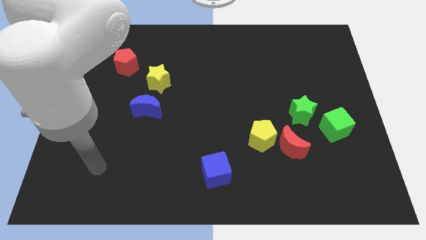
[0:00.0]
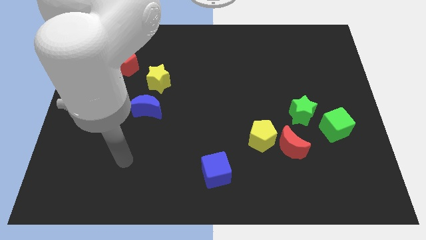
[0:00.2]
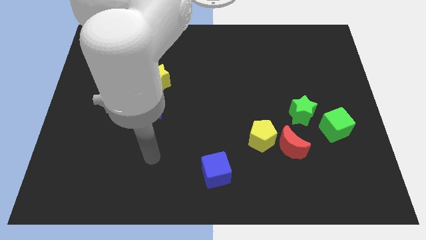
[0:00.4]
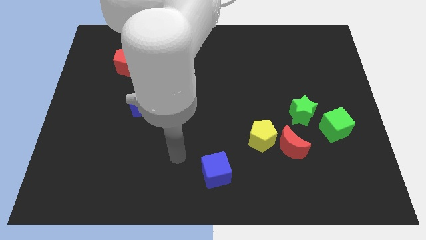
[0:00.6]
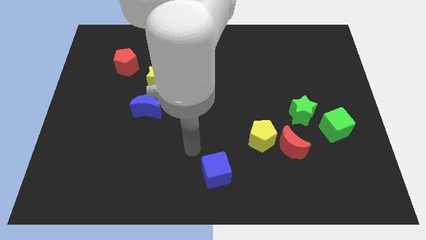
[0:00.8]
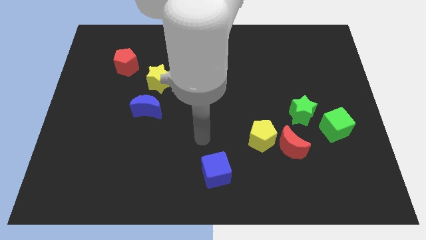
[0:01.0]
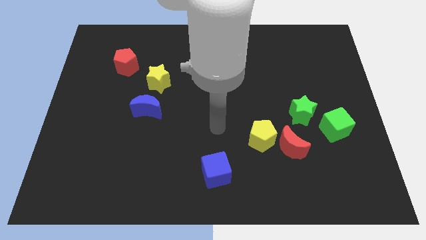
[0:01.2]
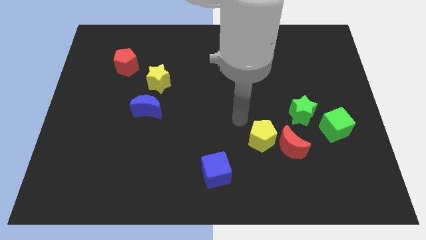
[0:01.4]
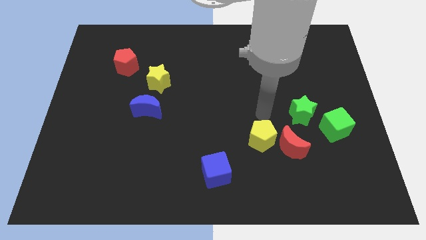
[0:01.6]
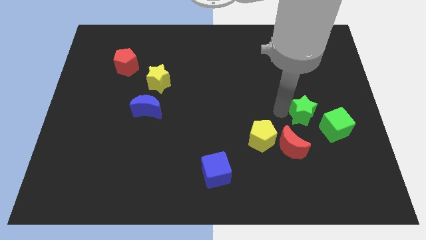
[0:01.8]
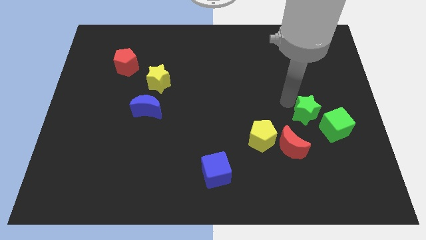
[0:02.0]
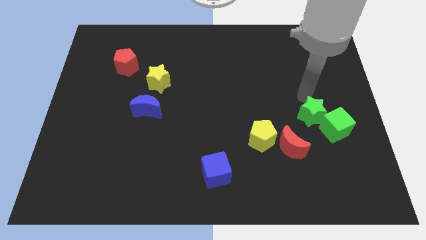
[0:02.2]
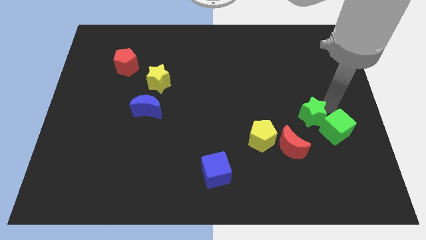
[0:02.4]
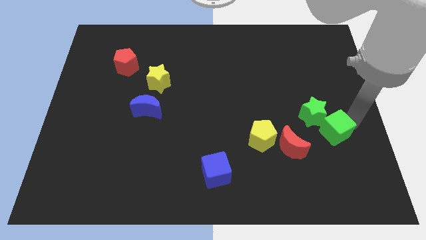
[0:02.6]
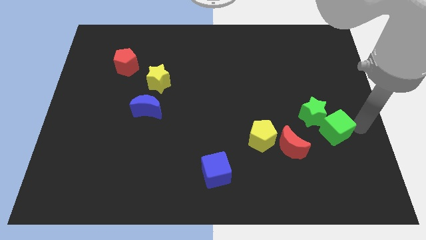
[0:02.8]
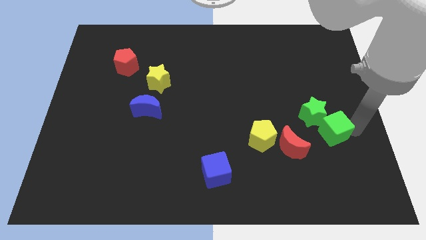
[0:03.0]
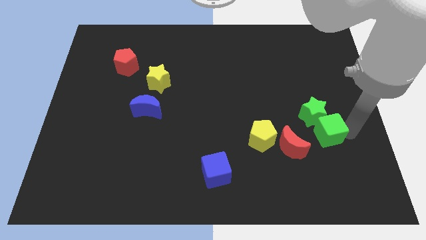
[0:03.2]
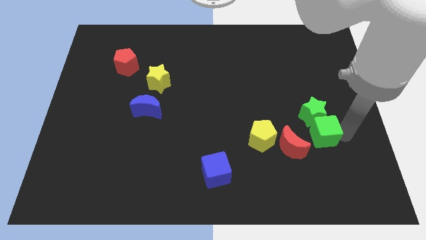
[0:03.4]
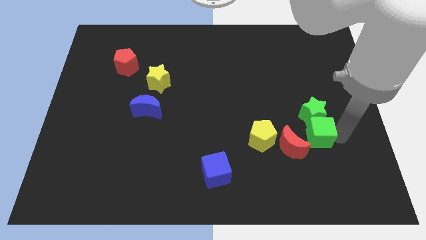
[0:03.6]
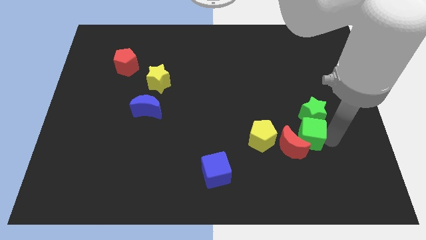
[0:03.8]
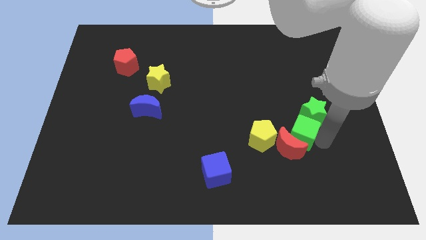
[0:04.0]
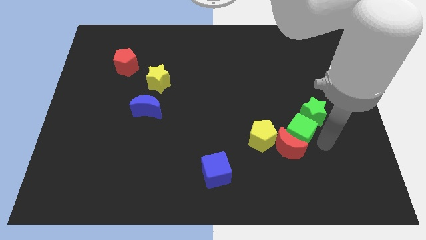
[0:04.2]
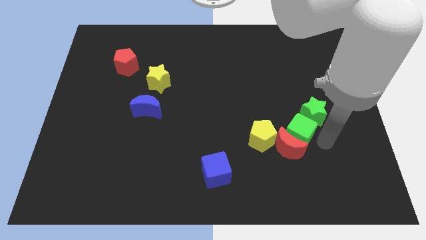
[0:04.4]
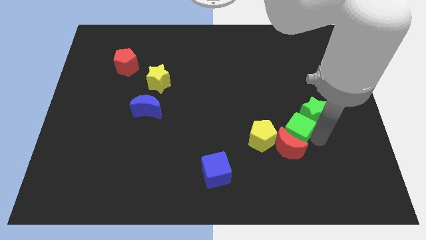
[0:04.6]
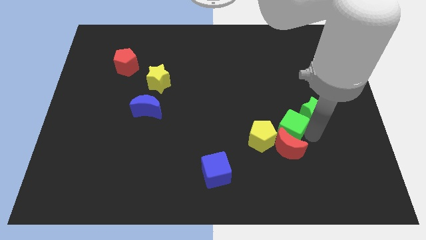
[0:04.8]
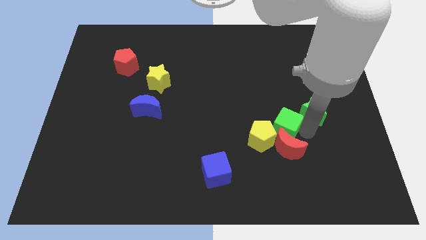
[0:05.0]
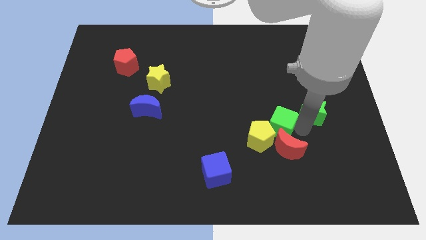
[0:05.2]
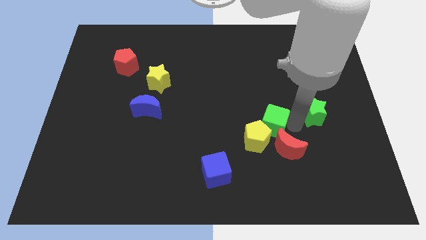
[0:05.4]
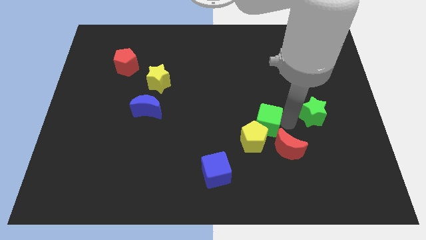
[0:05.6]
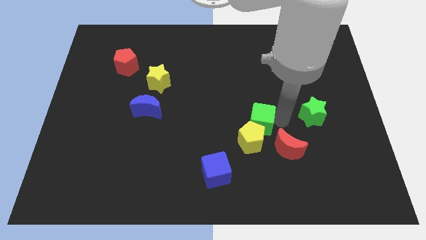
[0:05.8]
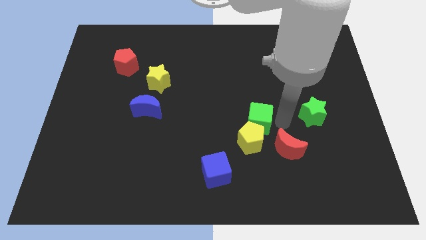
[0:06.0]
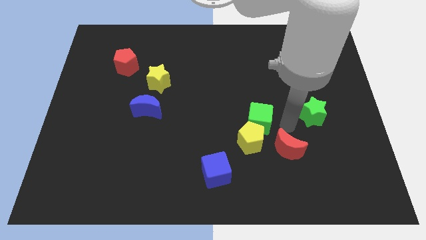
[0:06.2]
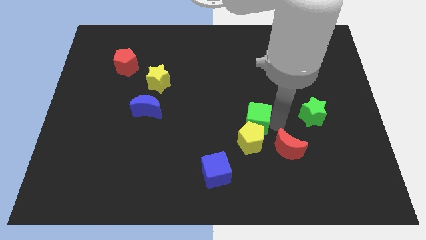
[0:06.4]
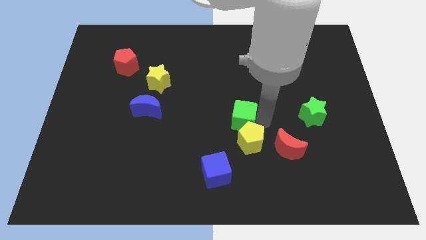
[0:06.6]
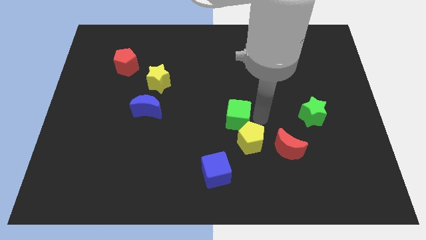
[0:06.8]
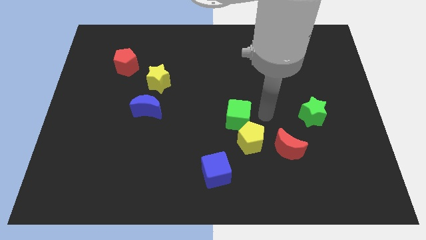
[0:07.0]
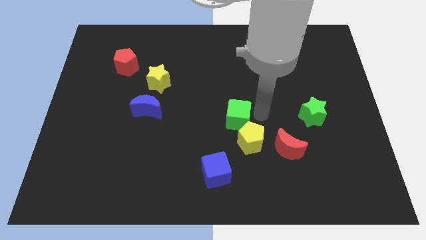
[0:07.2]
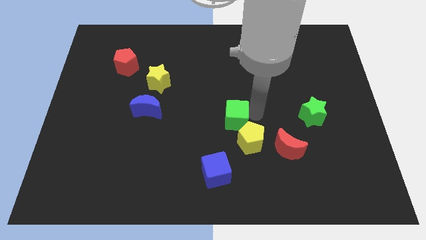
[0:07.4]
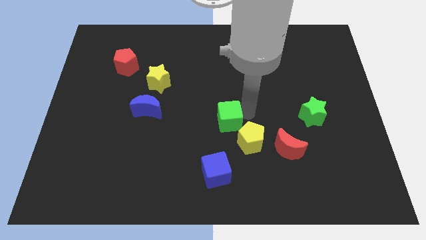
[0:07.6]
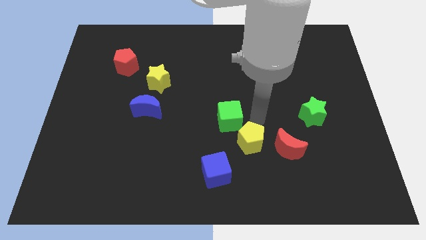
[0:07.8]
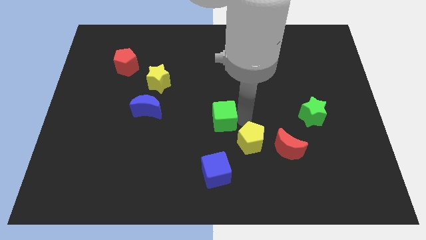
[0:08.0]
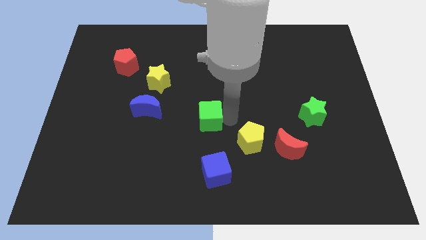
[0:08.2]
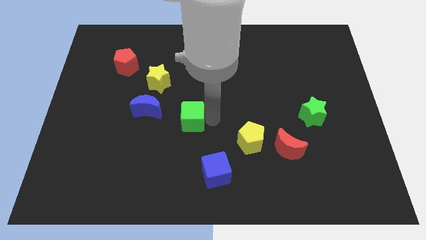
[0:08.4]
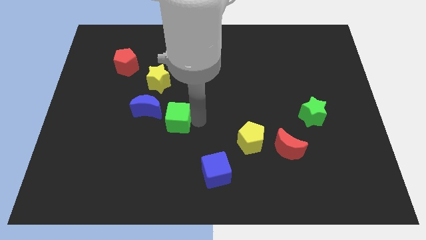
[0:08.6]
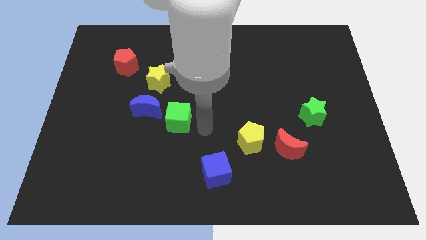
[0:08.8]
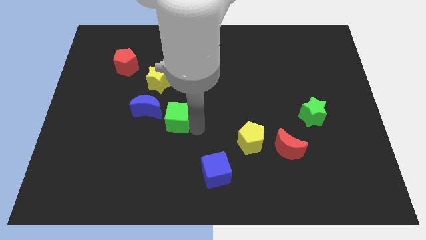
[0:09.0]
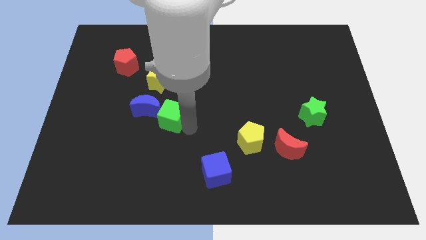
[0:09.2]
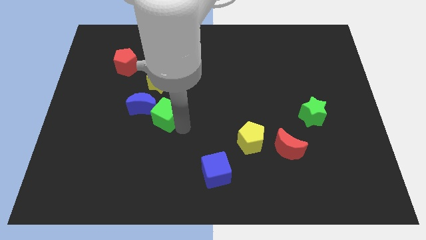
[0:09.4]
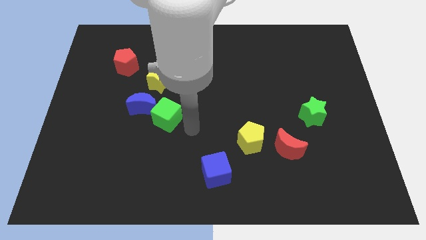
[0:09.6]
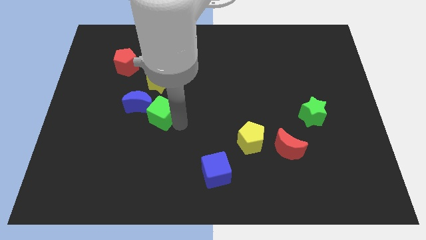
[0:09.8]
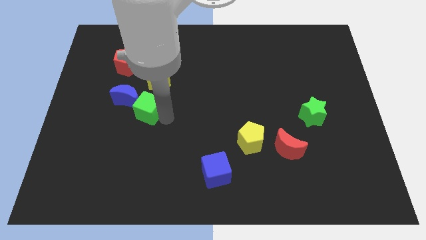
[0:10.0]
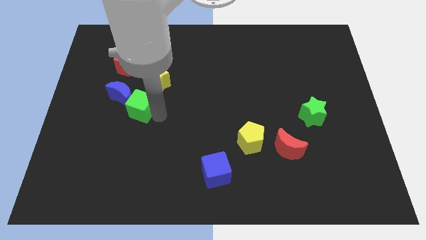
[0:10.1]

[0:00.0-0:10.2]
push the green cube next to the blue moon

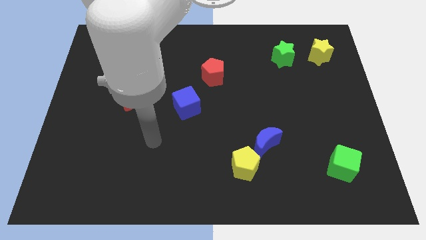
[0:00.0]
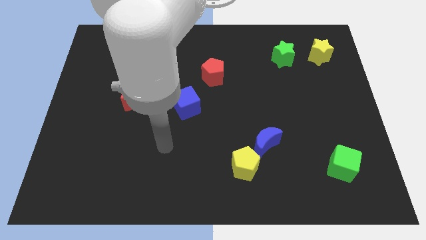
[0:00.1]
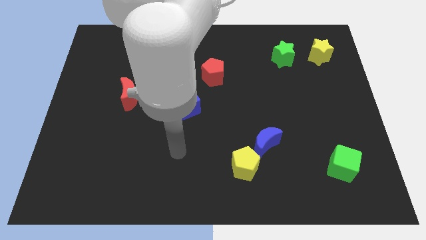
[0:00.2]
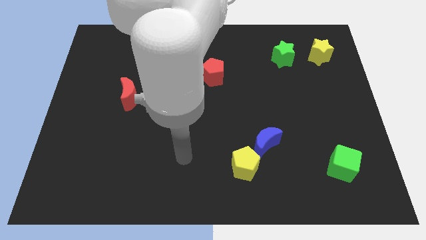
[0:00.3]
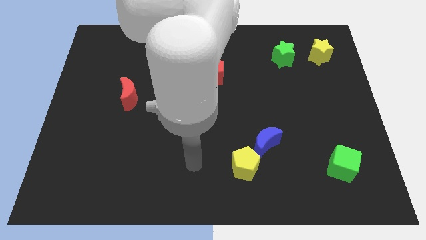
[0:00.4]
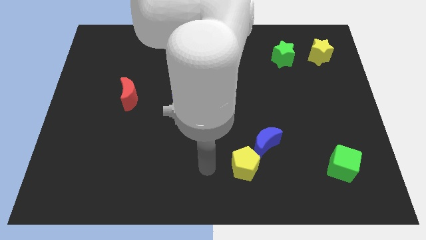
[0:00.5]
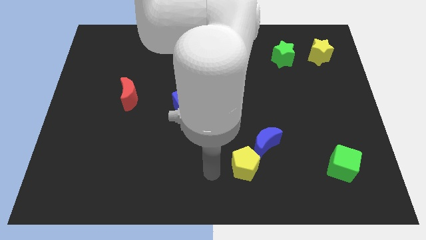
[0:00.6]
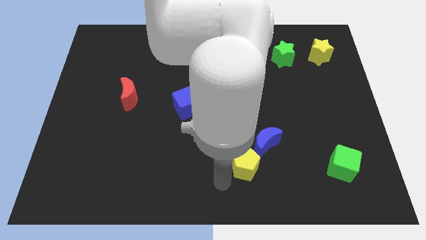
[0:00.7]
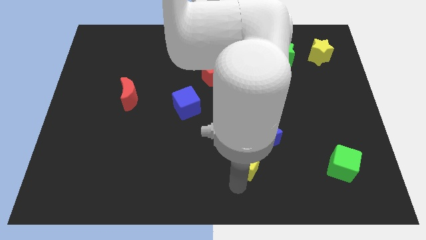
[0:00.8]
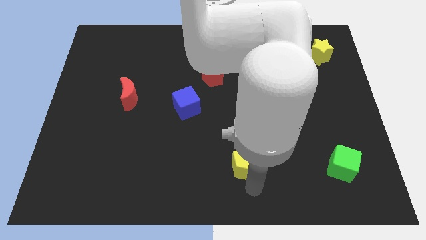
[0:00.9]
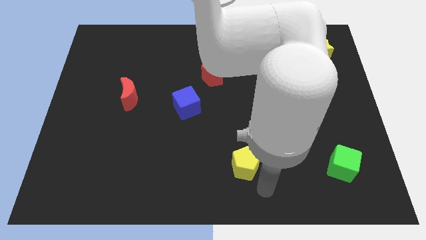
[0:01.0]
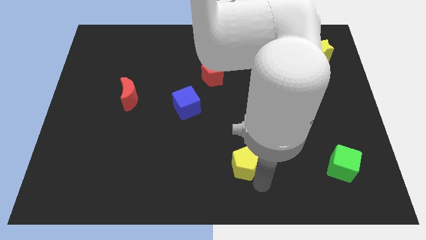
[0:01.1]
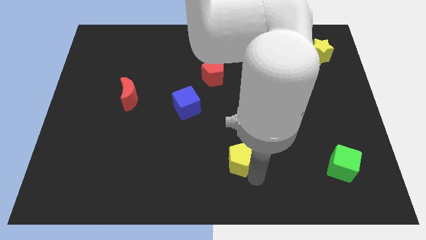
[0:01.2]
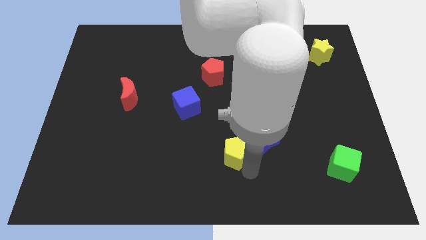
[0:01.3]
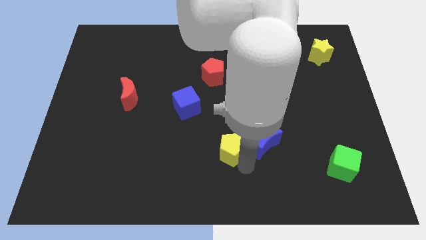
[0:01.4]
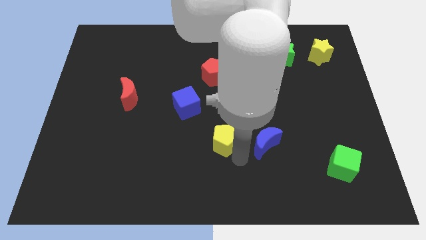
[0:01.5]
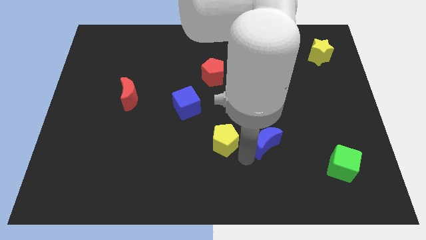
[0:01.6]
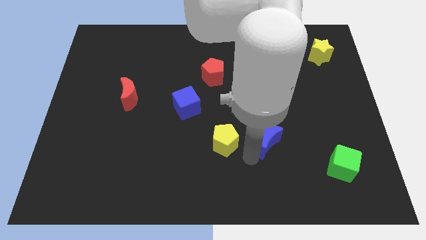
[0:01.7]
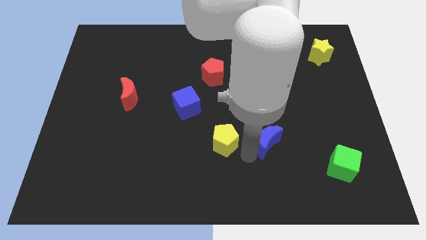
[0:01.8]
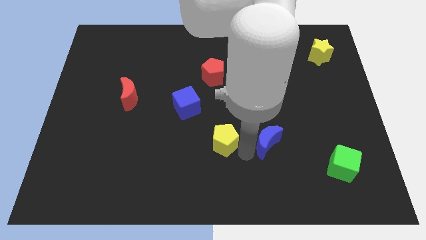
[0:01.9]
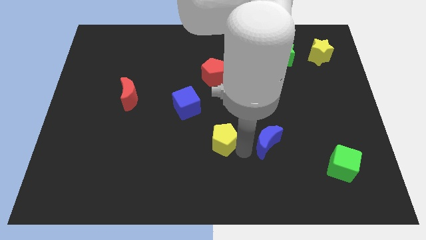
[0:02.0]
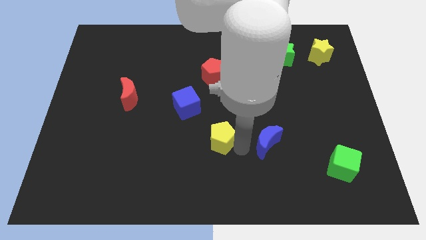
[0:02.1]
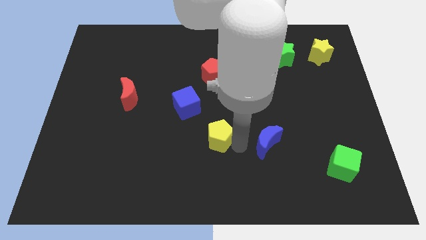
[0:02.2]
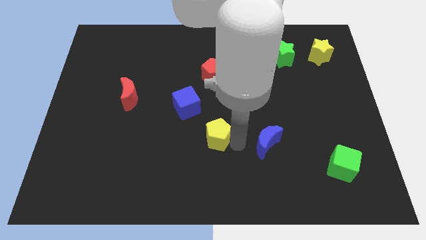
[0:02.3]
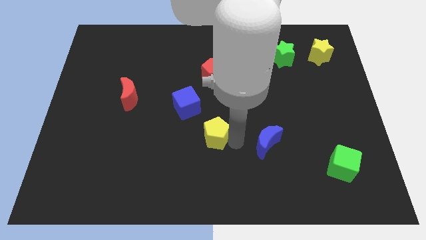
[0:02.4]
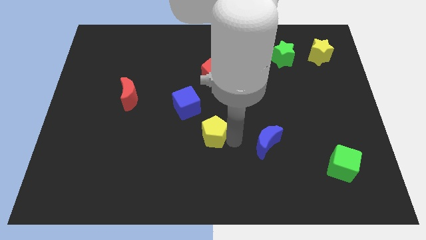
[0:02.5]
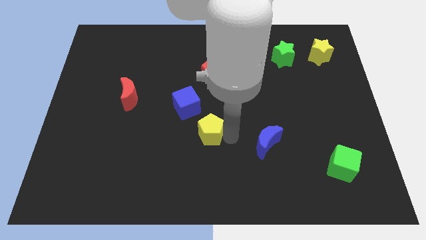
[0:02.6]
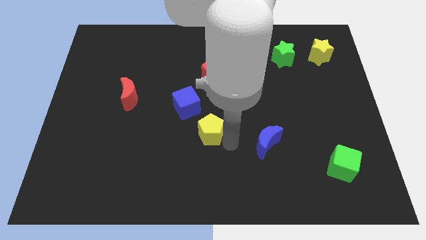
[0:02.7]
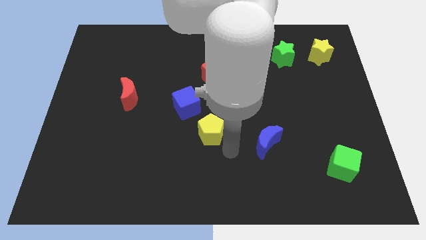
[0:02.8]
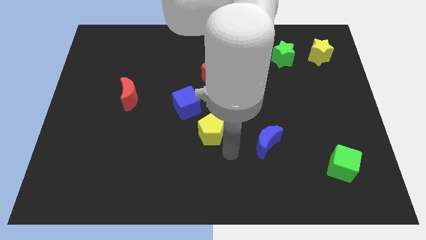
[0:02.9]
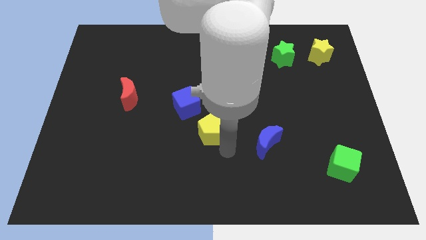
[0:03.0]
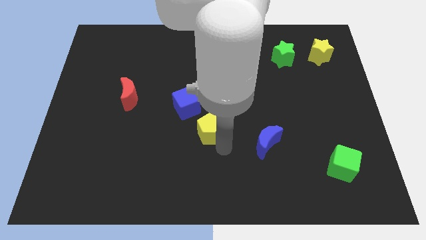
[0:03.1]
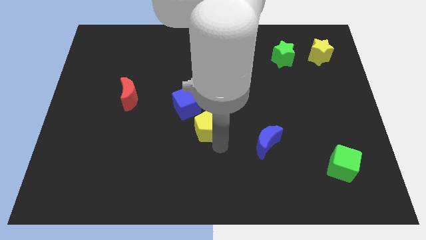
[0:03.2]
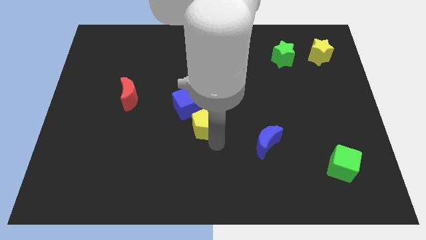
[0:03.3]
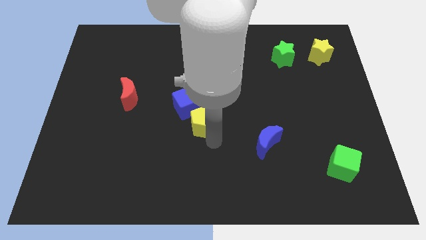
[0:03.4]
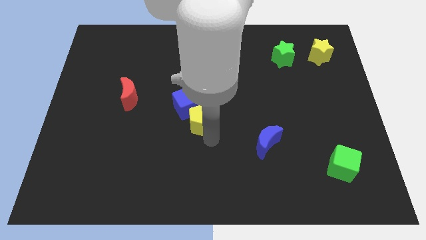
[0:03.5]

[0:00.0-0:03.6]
push the yellow pentagon close to the blue cube
